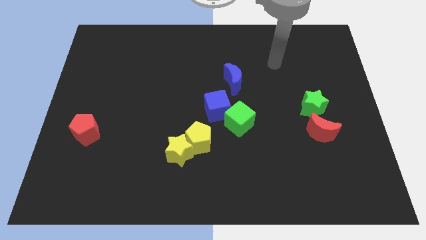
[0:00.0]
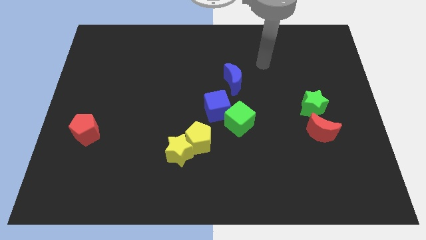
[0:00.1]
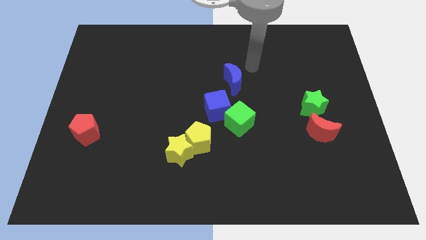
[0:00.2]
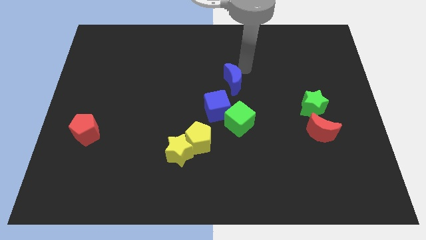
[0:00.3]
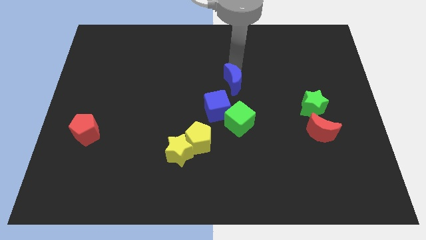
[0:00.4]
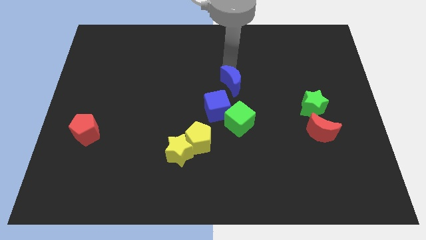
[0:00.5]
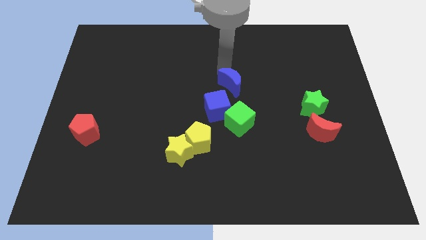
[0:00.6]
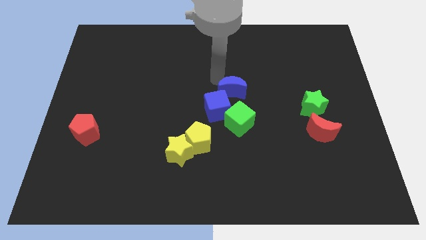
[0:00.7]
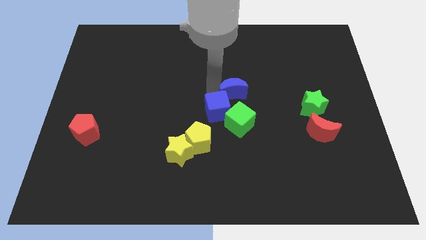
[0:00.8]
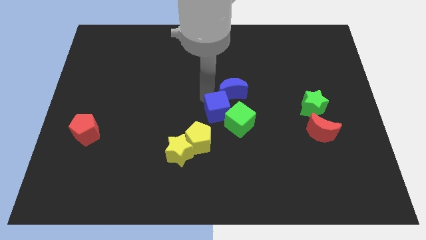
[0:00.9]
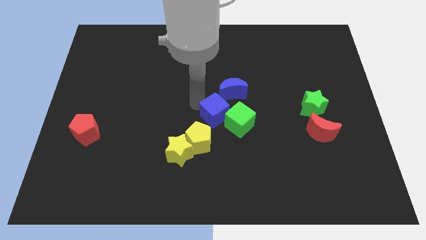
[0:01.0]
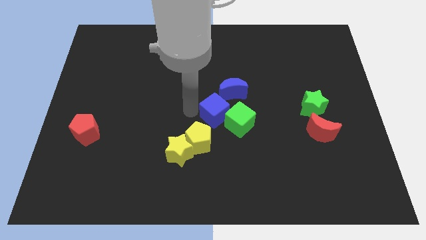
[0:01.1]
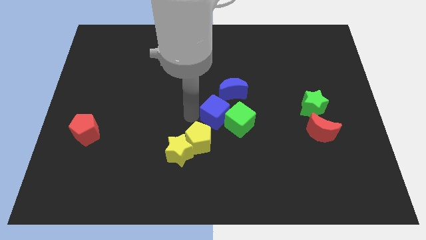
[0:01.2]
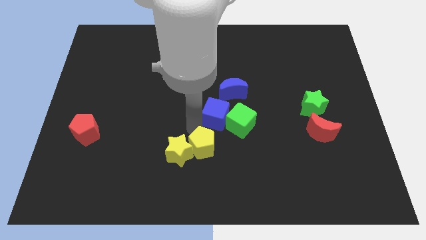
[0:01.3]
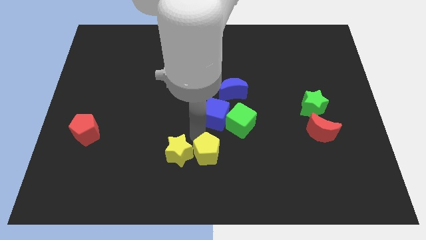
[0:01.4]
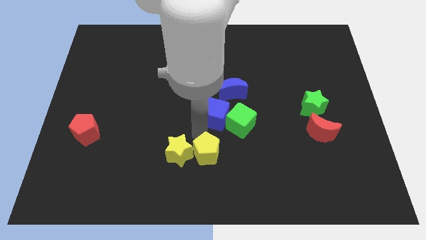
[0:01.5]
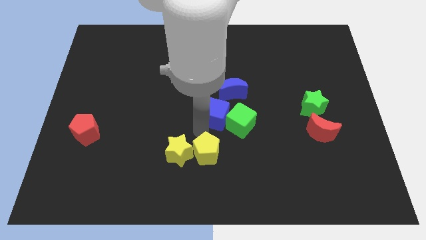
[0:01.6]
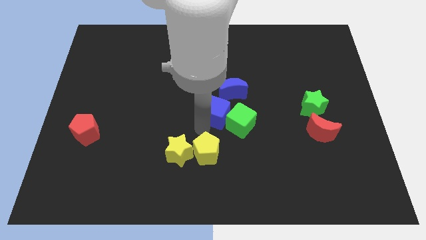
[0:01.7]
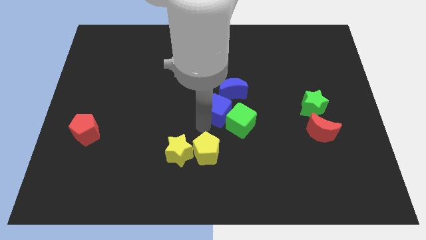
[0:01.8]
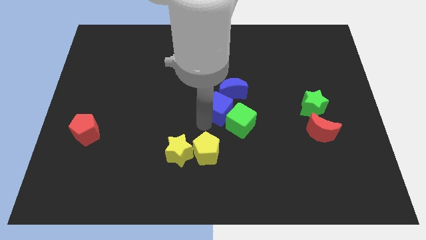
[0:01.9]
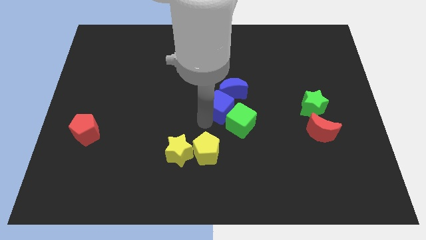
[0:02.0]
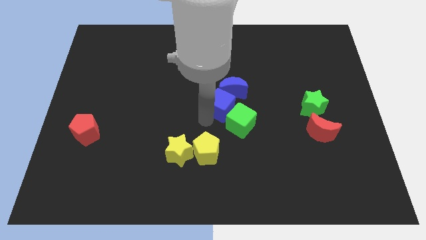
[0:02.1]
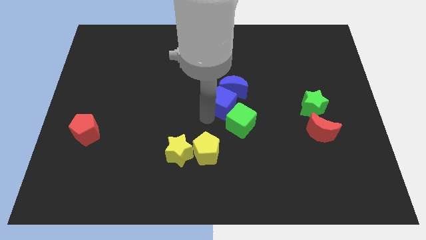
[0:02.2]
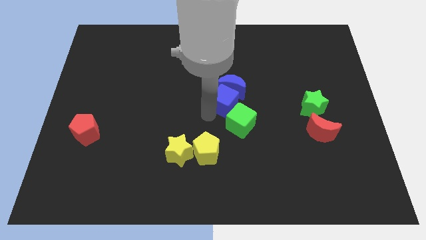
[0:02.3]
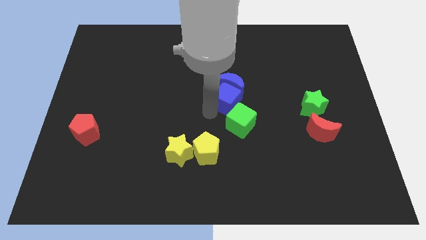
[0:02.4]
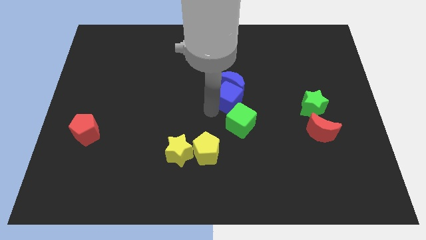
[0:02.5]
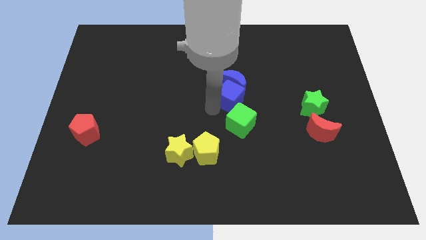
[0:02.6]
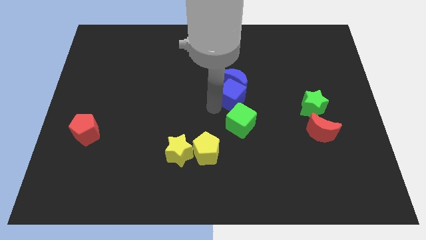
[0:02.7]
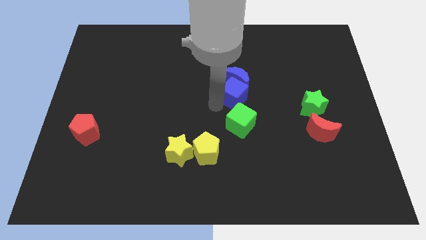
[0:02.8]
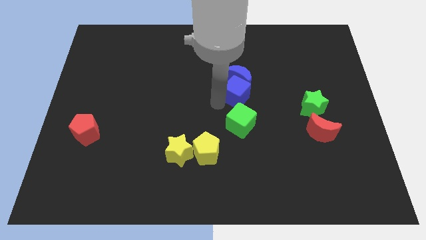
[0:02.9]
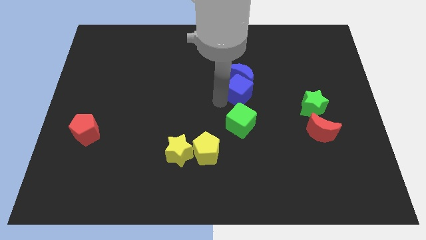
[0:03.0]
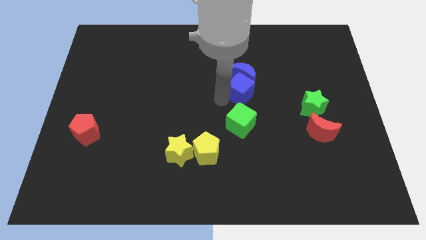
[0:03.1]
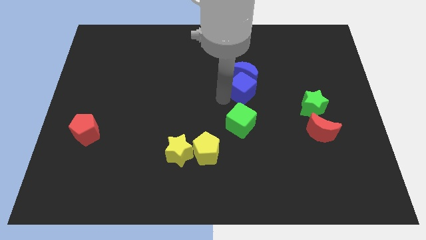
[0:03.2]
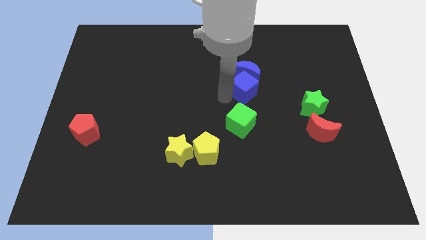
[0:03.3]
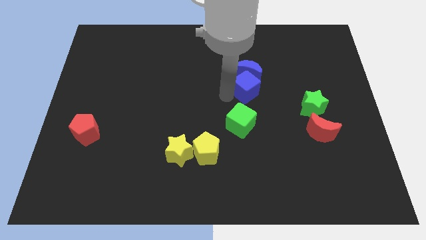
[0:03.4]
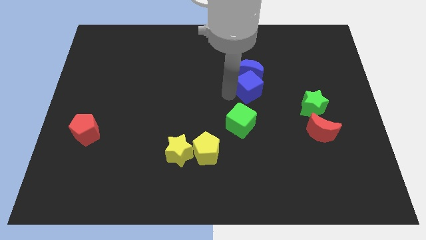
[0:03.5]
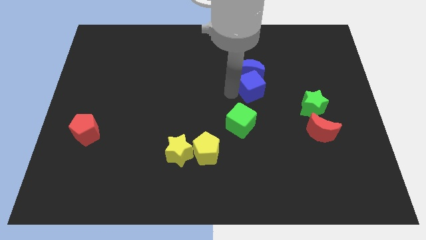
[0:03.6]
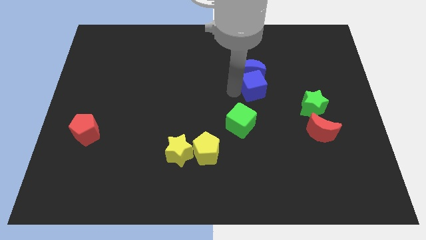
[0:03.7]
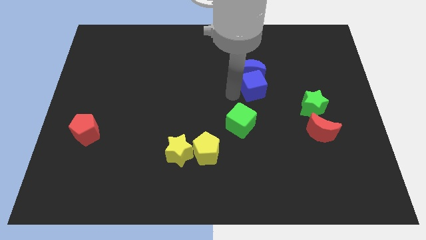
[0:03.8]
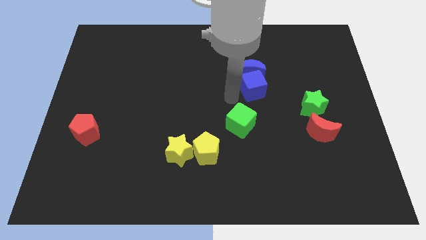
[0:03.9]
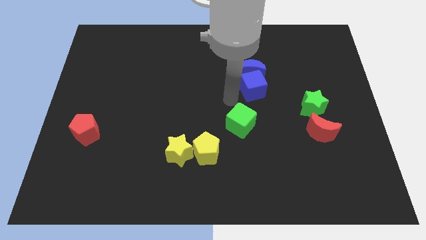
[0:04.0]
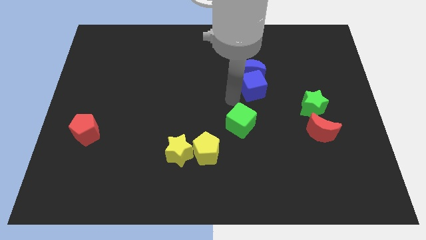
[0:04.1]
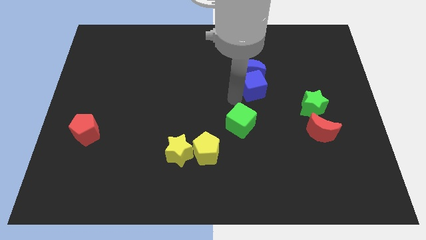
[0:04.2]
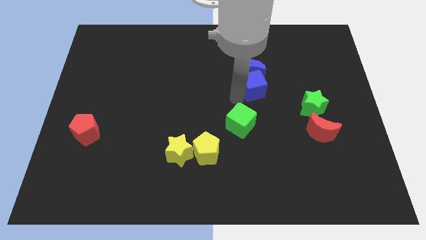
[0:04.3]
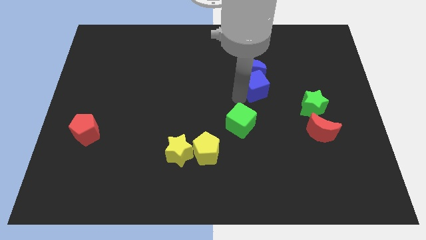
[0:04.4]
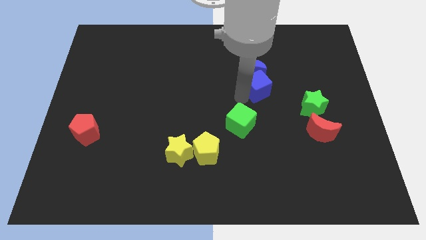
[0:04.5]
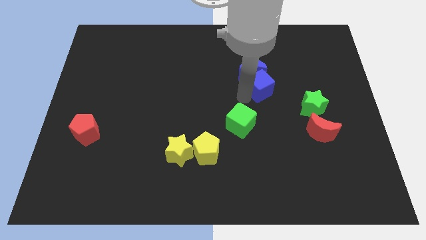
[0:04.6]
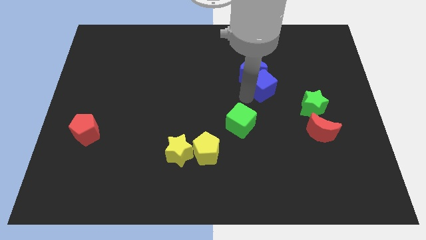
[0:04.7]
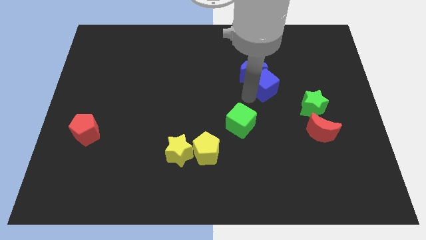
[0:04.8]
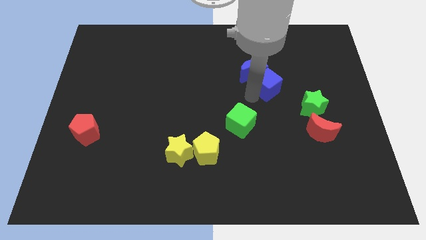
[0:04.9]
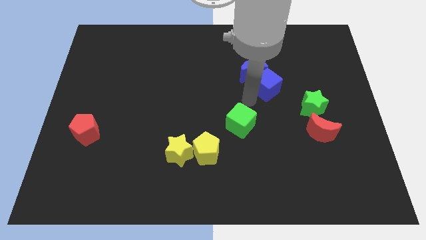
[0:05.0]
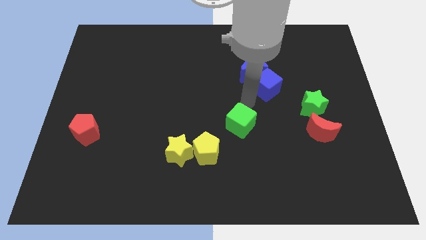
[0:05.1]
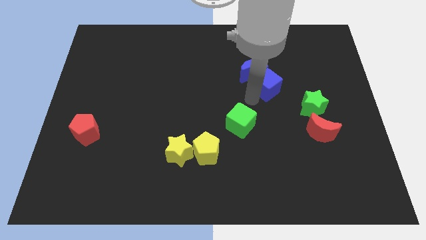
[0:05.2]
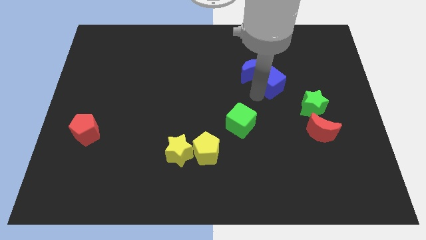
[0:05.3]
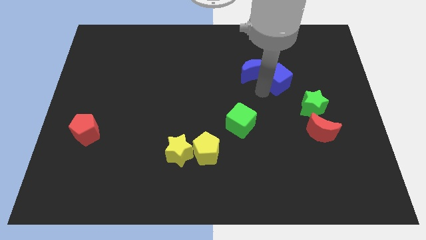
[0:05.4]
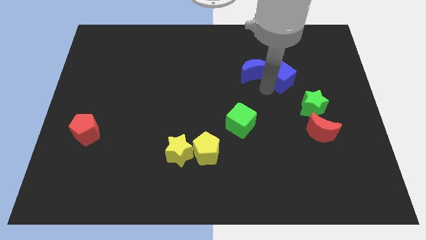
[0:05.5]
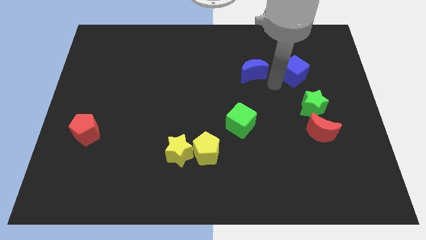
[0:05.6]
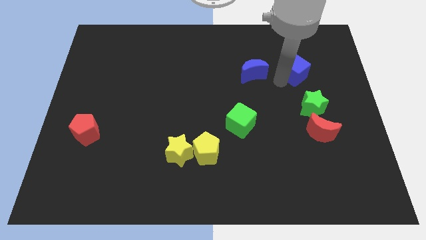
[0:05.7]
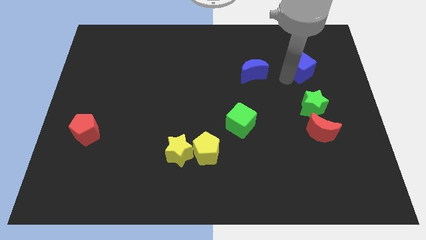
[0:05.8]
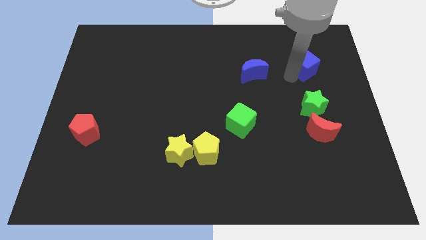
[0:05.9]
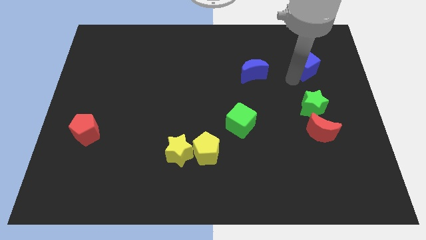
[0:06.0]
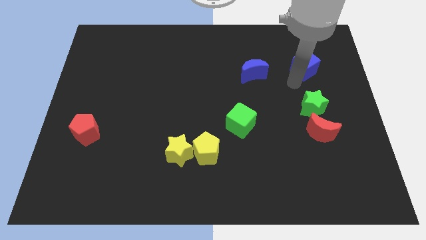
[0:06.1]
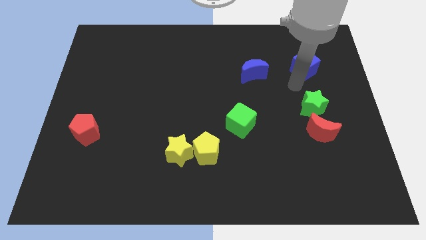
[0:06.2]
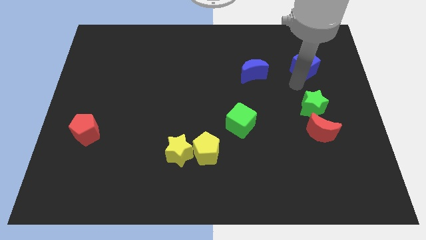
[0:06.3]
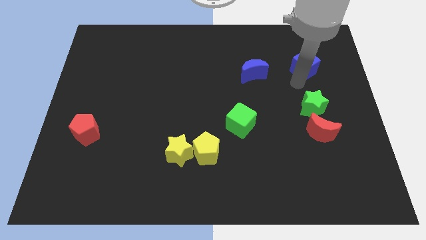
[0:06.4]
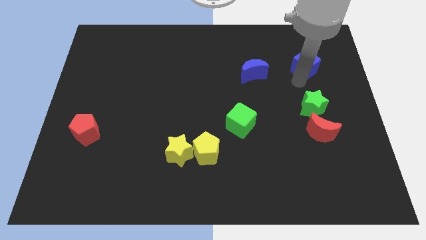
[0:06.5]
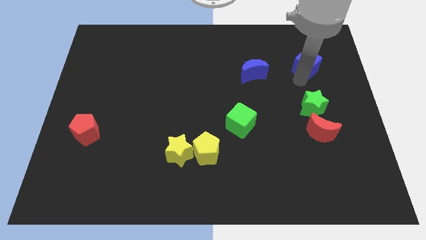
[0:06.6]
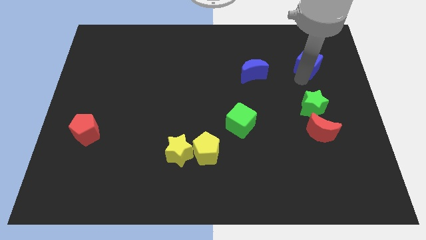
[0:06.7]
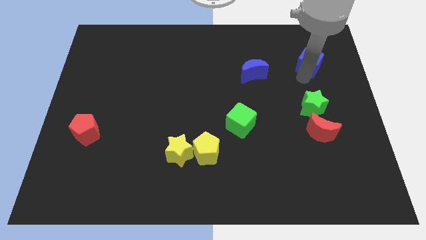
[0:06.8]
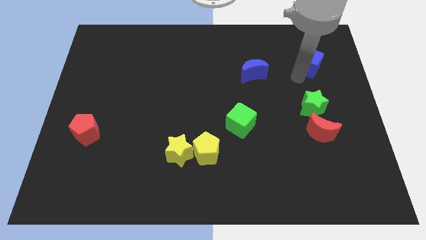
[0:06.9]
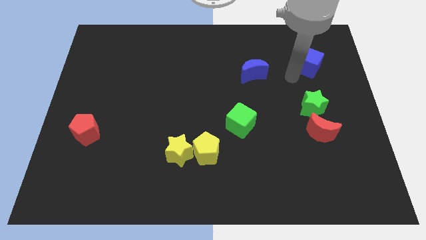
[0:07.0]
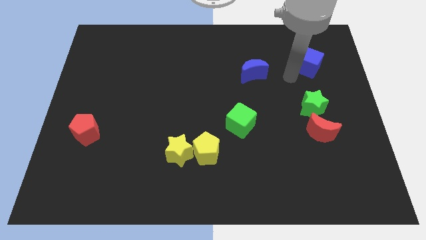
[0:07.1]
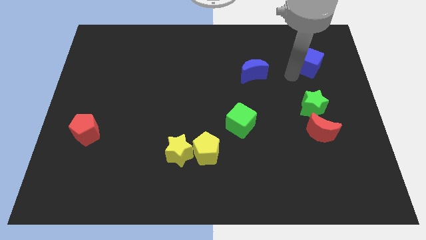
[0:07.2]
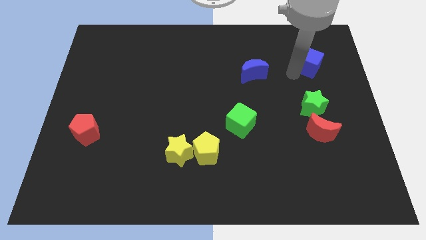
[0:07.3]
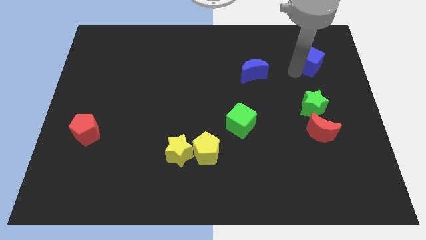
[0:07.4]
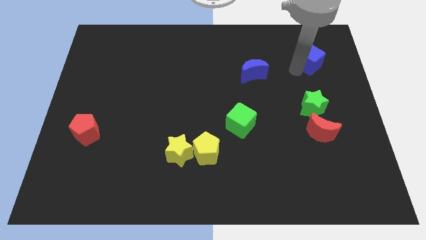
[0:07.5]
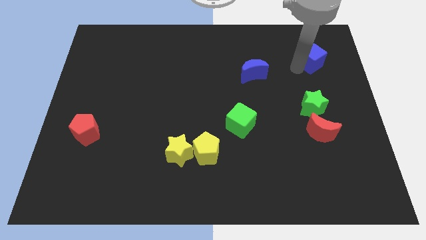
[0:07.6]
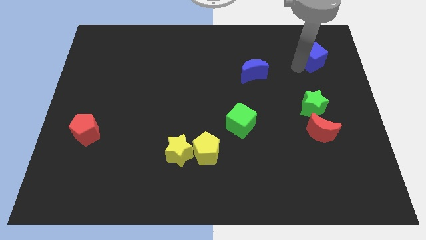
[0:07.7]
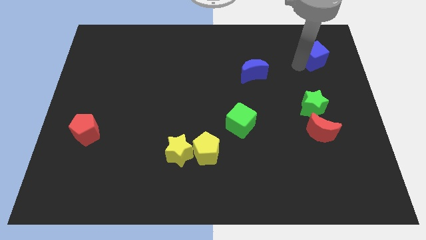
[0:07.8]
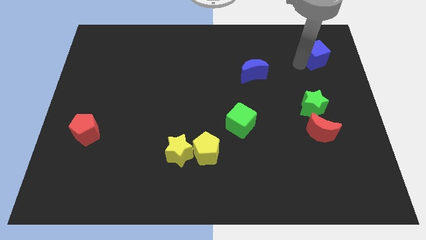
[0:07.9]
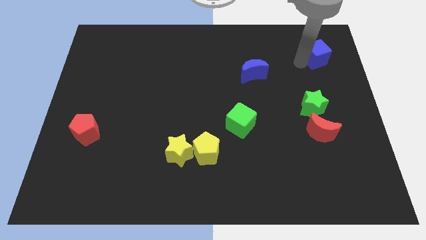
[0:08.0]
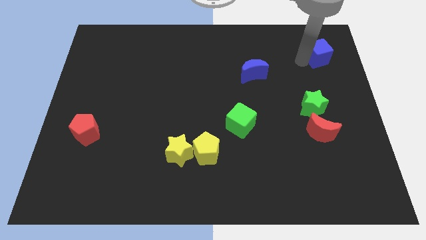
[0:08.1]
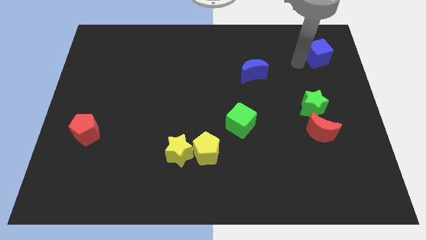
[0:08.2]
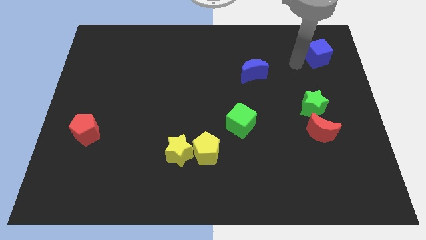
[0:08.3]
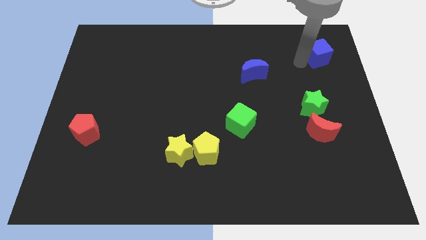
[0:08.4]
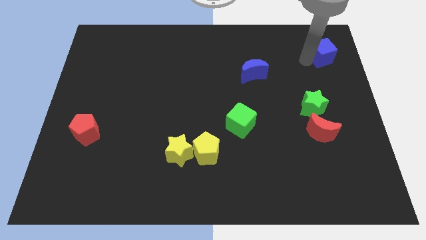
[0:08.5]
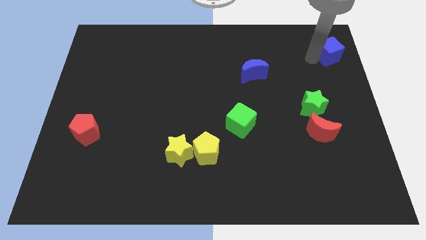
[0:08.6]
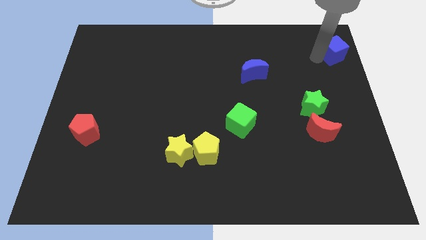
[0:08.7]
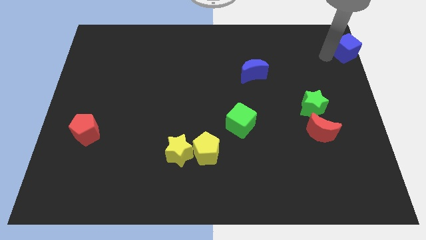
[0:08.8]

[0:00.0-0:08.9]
push the blue cube to the top right corner
